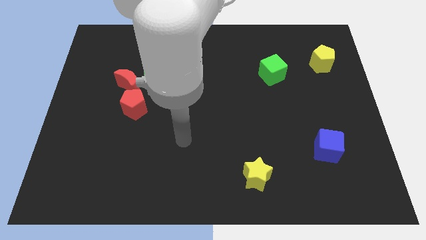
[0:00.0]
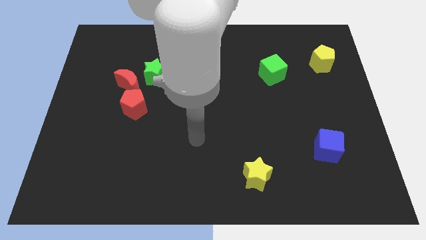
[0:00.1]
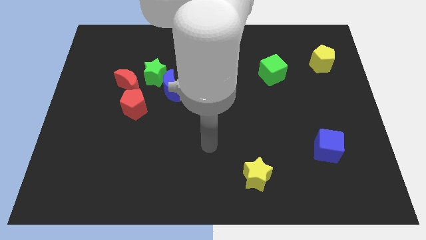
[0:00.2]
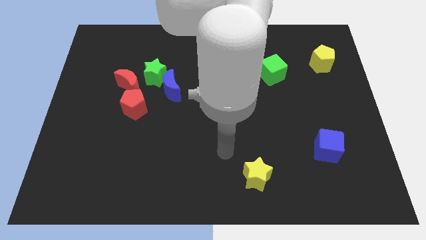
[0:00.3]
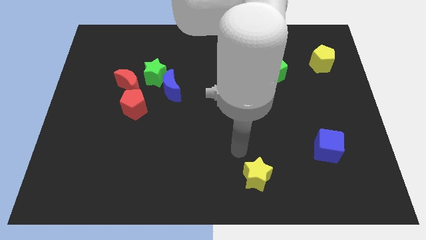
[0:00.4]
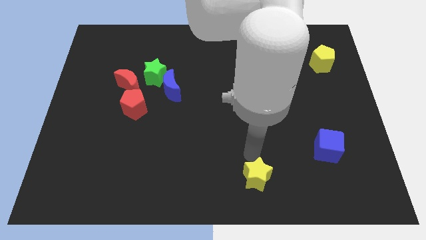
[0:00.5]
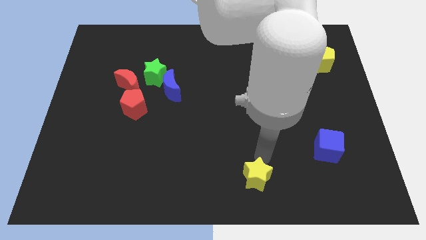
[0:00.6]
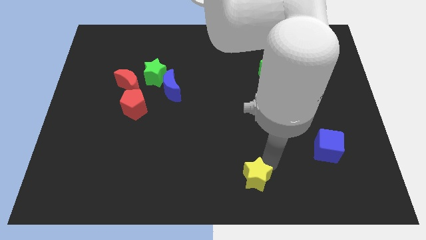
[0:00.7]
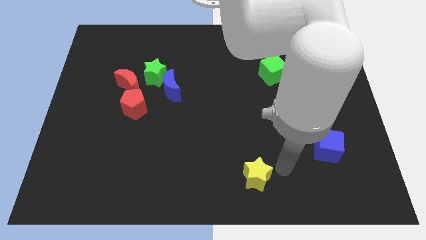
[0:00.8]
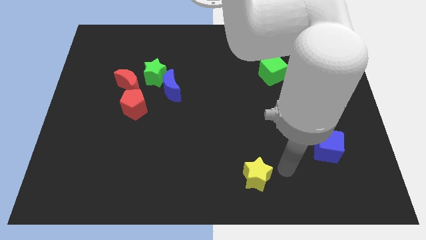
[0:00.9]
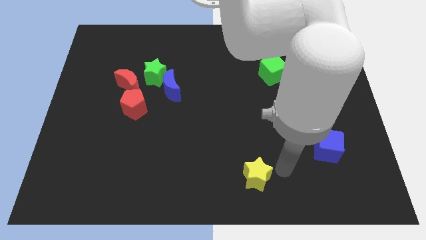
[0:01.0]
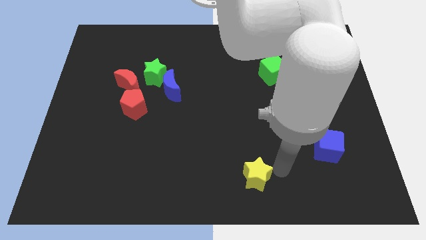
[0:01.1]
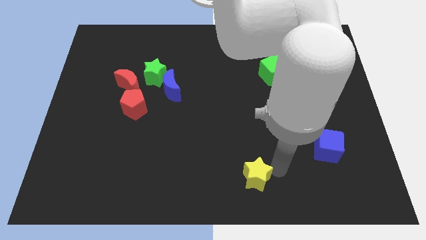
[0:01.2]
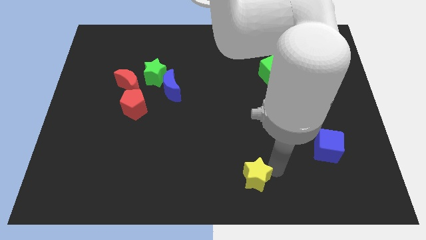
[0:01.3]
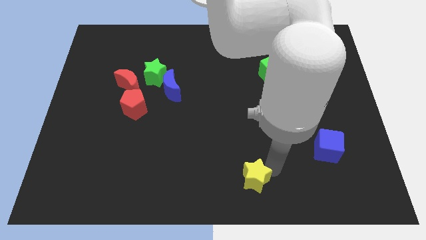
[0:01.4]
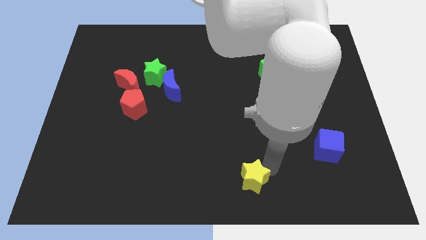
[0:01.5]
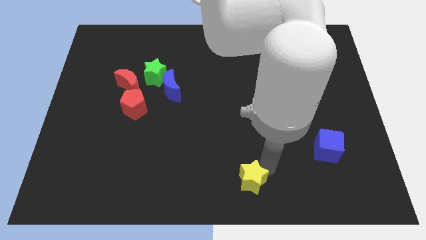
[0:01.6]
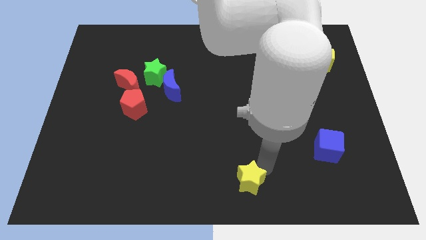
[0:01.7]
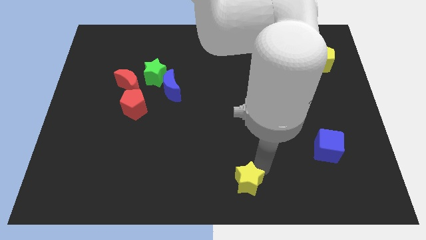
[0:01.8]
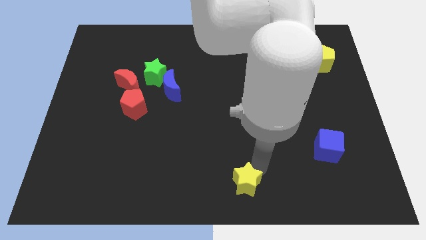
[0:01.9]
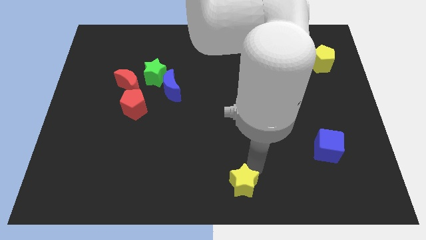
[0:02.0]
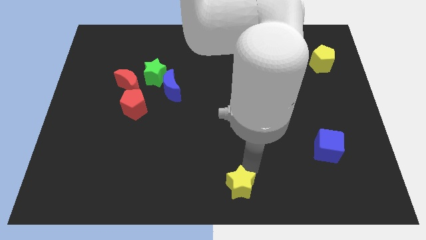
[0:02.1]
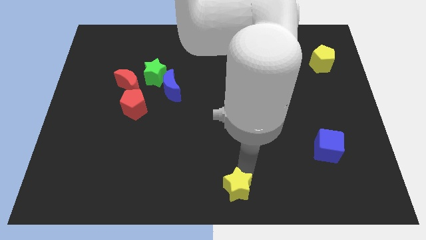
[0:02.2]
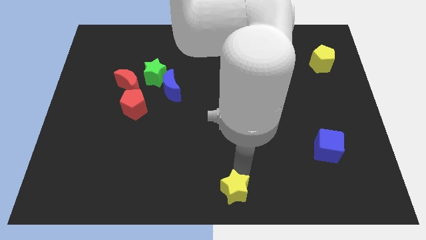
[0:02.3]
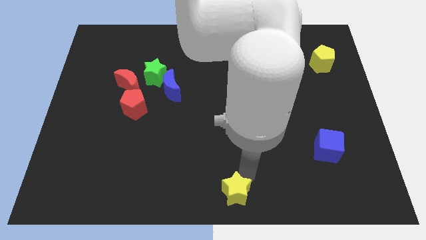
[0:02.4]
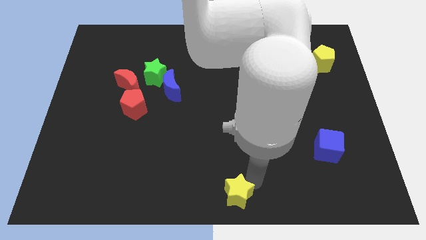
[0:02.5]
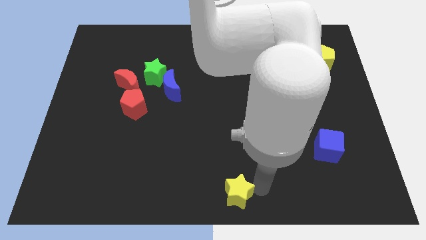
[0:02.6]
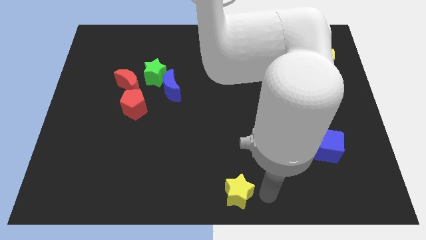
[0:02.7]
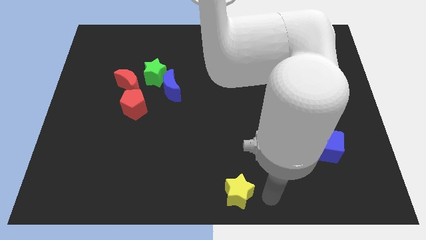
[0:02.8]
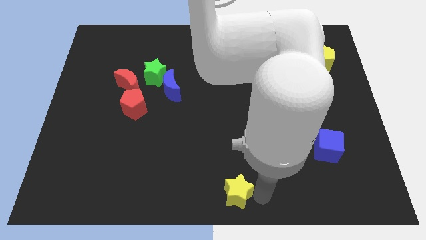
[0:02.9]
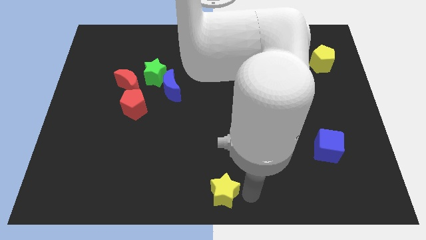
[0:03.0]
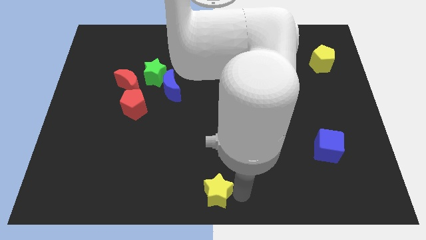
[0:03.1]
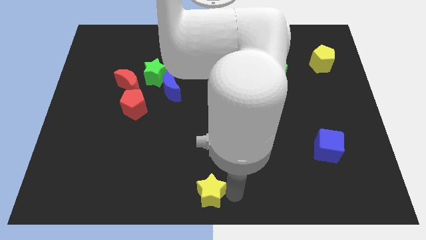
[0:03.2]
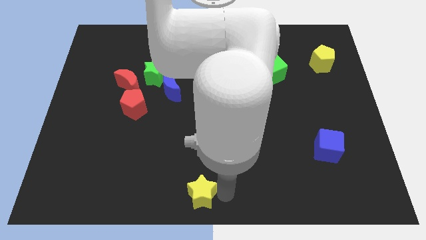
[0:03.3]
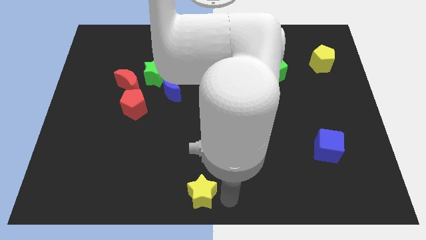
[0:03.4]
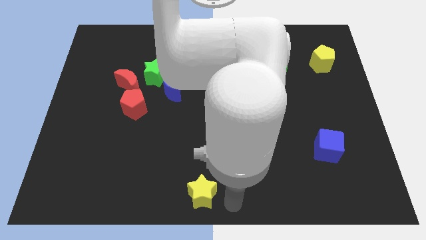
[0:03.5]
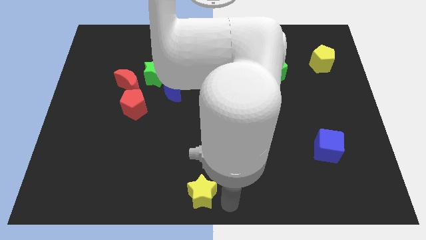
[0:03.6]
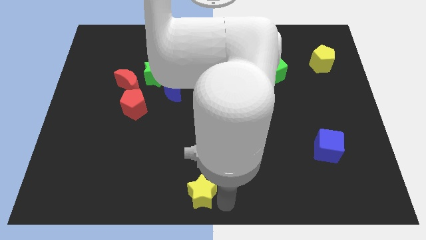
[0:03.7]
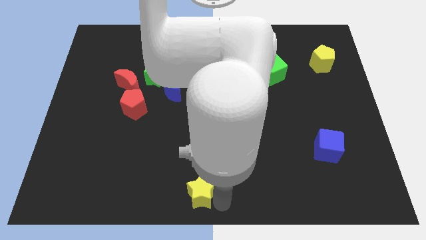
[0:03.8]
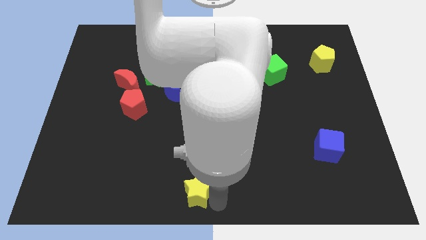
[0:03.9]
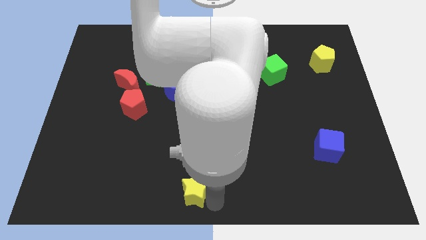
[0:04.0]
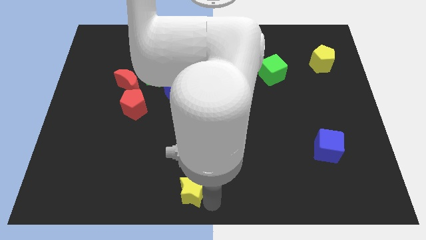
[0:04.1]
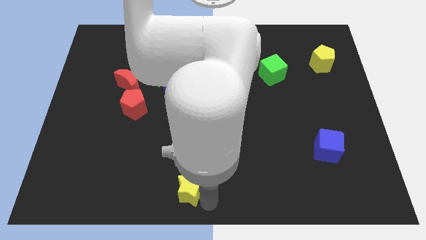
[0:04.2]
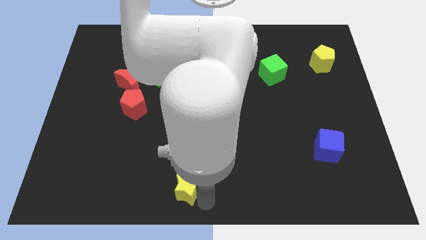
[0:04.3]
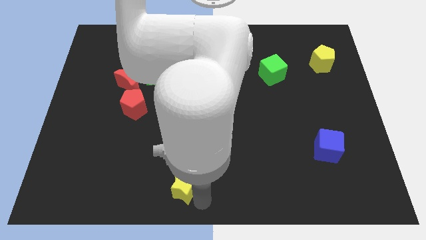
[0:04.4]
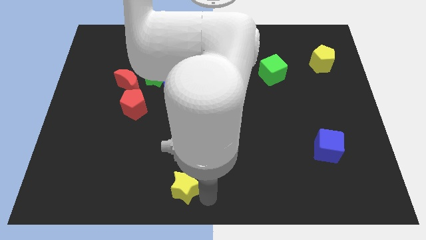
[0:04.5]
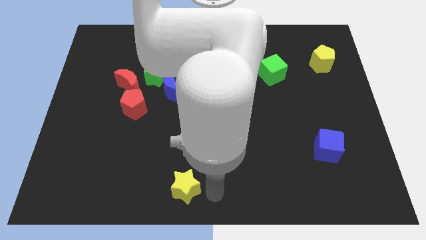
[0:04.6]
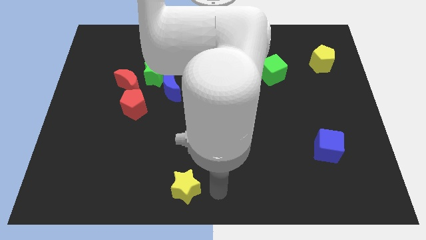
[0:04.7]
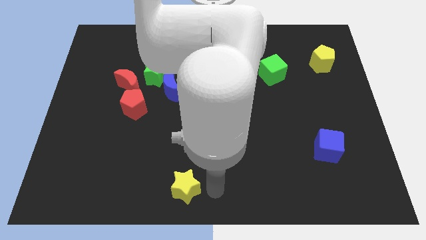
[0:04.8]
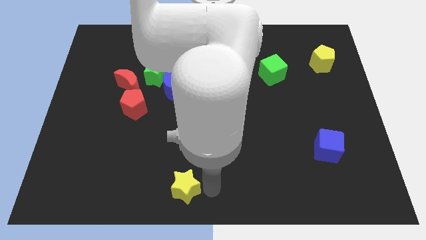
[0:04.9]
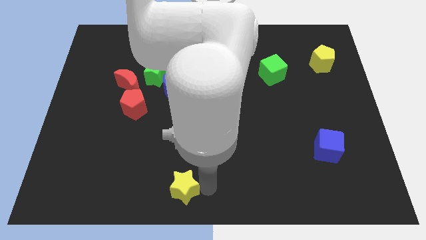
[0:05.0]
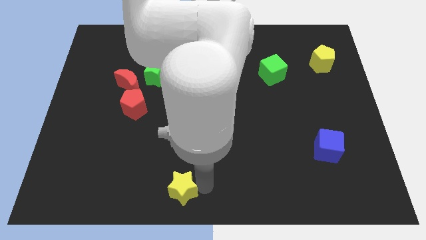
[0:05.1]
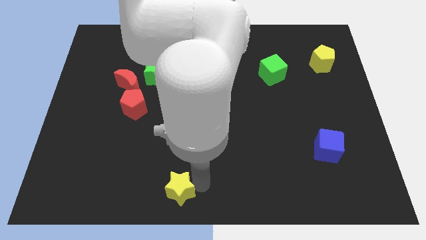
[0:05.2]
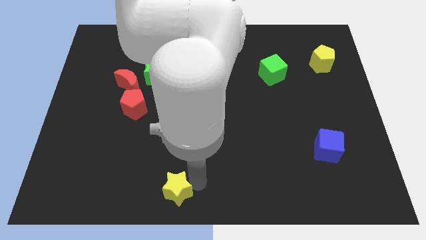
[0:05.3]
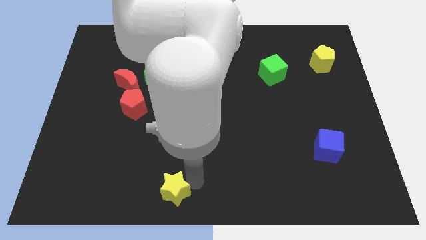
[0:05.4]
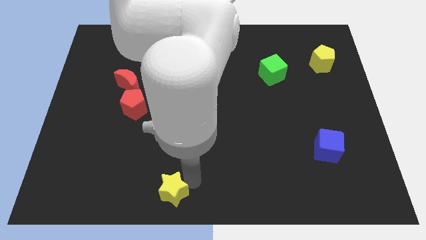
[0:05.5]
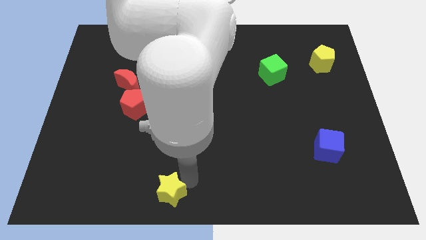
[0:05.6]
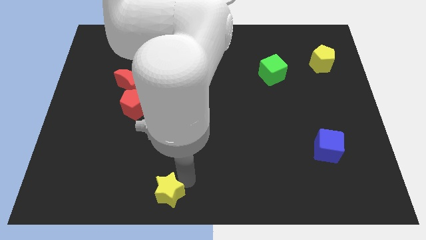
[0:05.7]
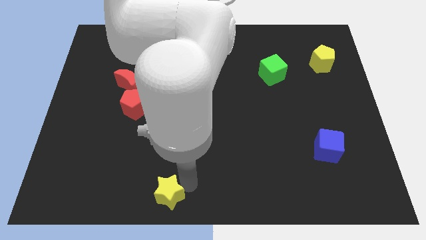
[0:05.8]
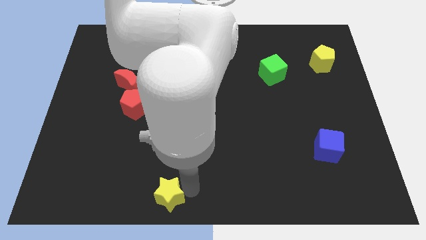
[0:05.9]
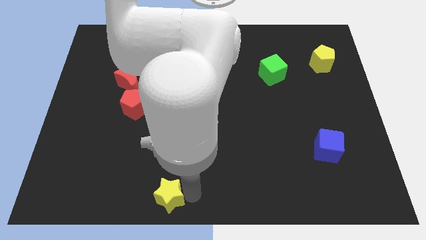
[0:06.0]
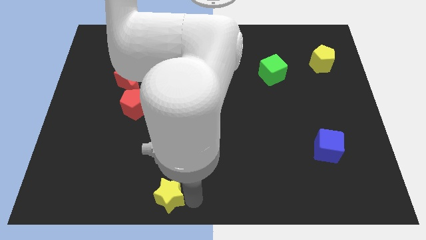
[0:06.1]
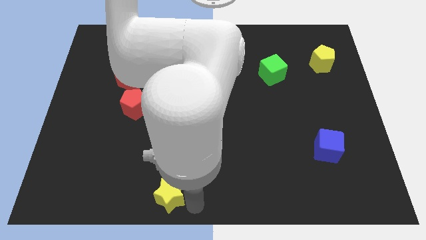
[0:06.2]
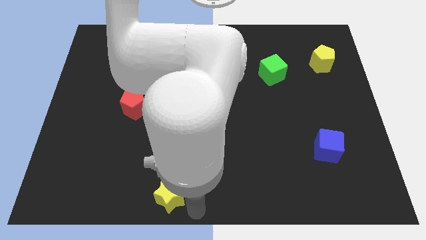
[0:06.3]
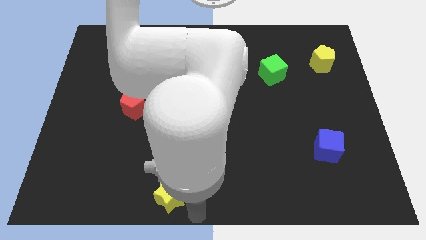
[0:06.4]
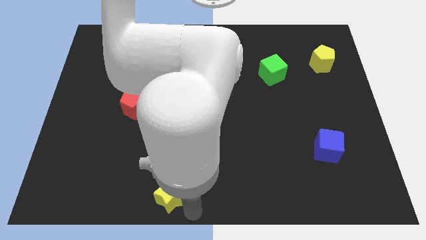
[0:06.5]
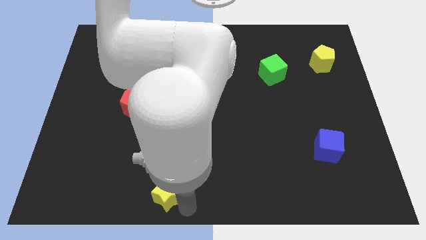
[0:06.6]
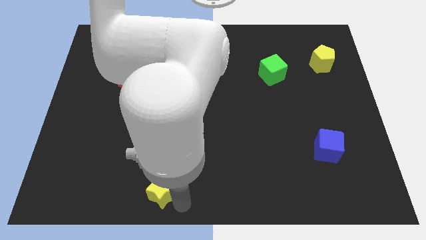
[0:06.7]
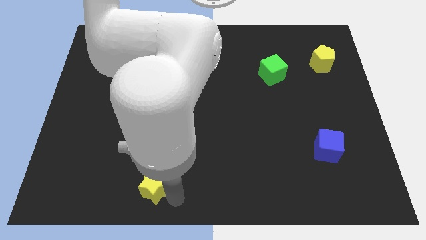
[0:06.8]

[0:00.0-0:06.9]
move the yellow star left

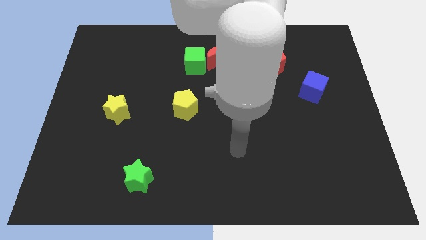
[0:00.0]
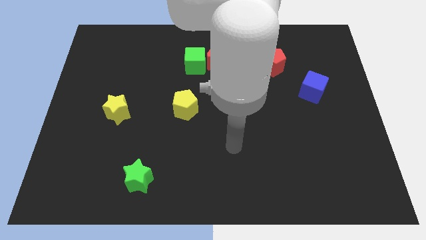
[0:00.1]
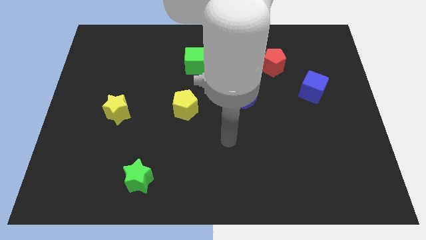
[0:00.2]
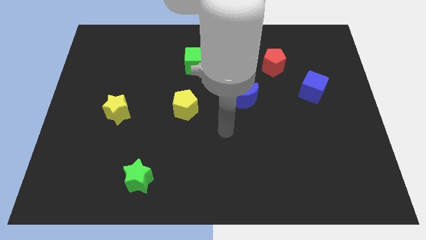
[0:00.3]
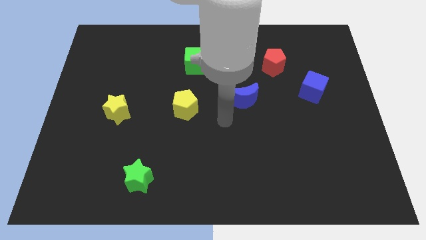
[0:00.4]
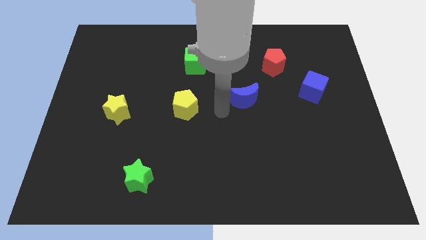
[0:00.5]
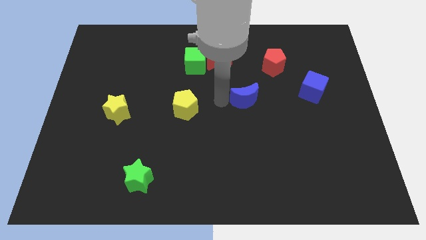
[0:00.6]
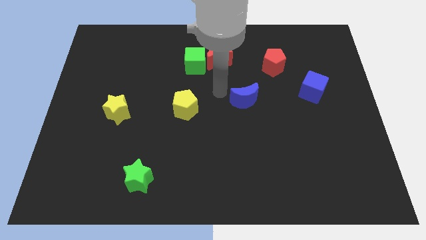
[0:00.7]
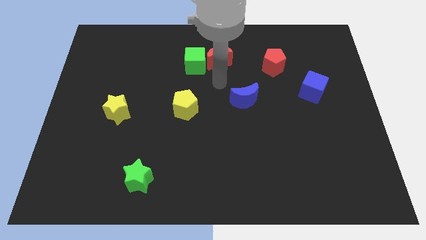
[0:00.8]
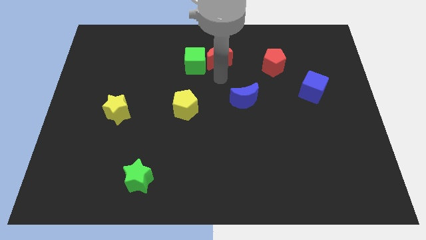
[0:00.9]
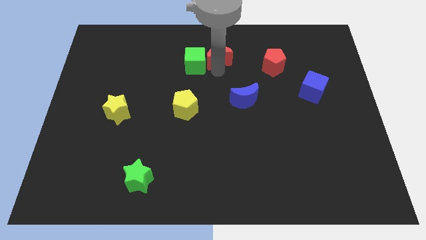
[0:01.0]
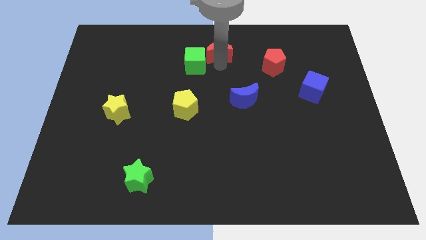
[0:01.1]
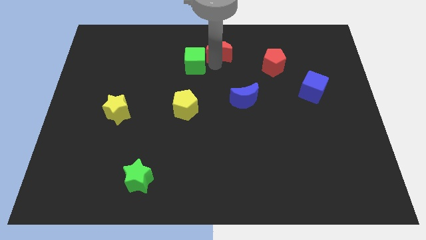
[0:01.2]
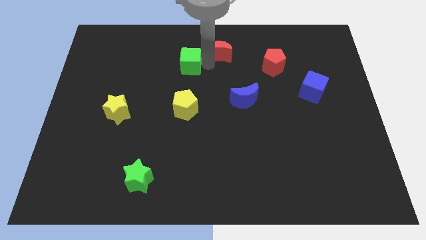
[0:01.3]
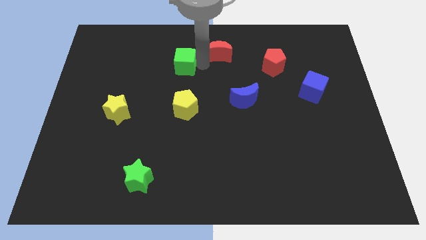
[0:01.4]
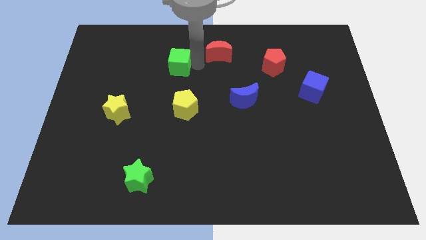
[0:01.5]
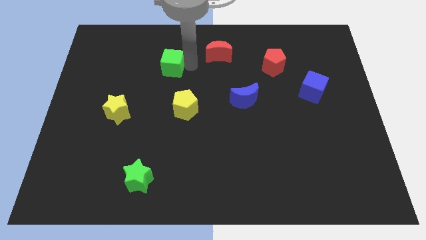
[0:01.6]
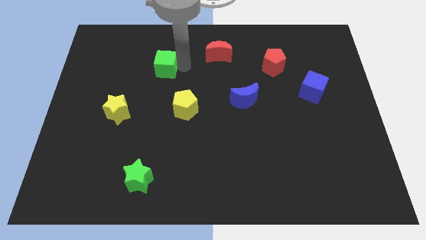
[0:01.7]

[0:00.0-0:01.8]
push the green cube a little bit to the left
